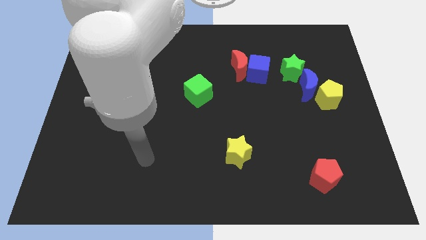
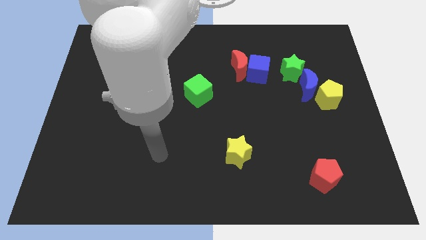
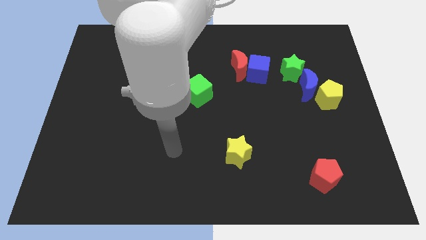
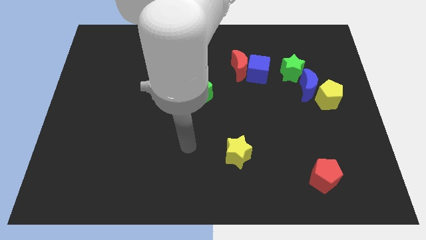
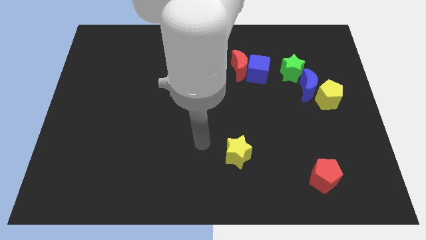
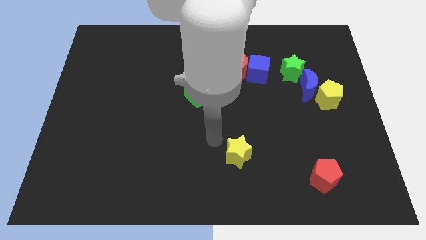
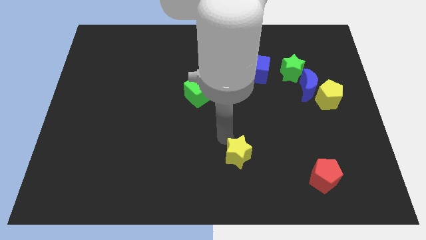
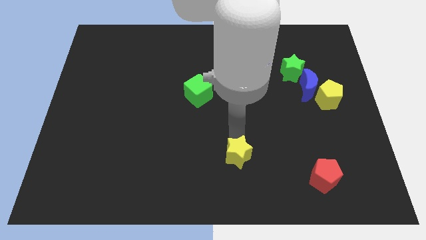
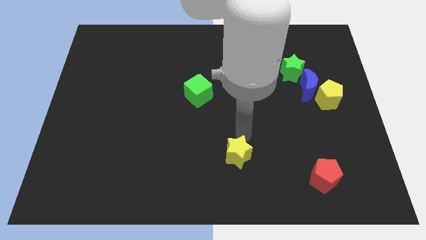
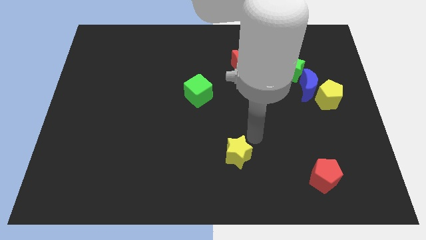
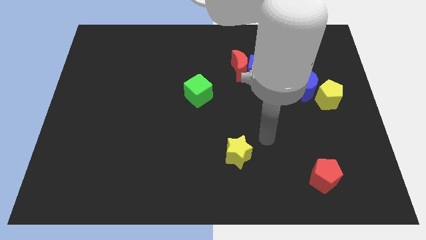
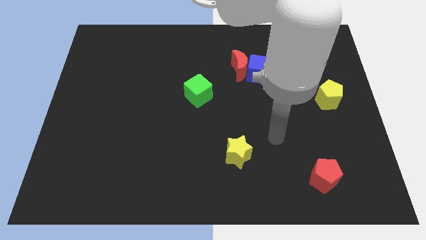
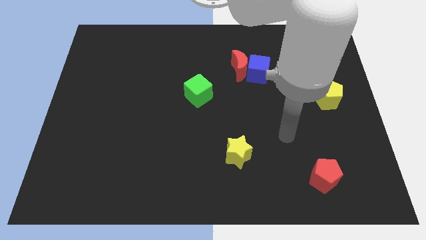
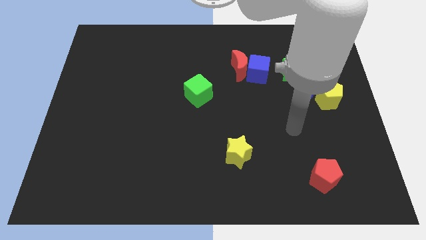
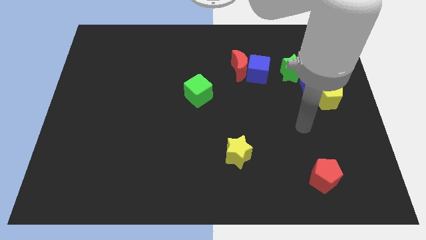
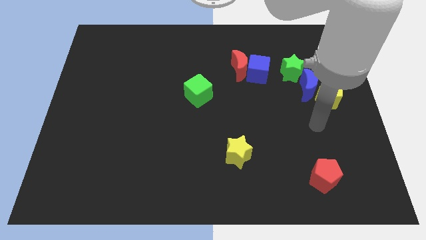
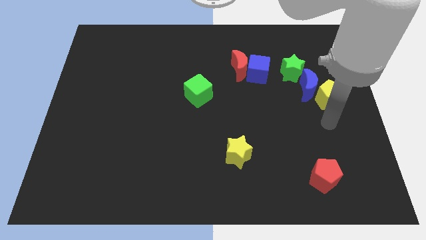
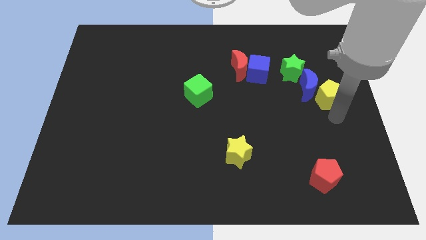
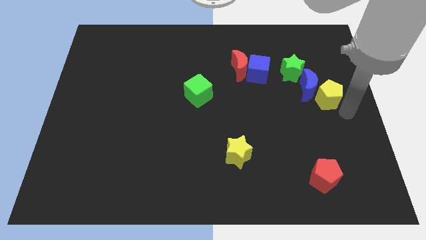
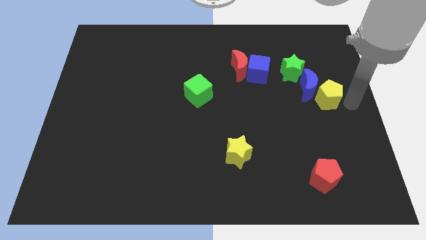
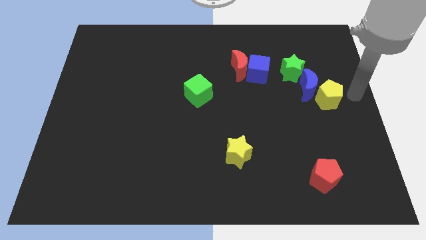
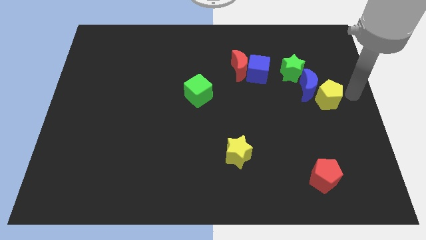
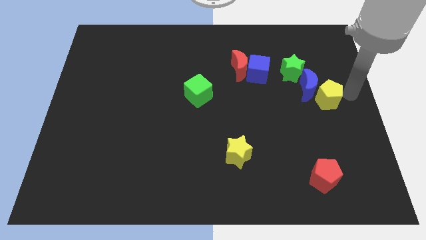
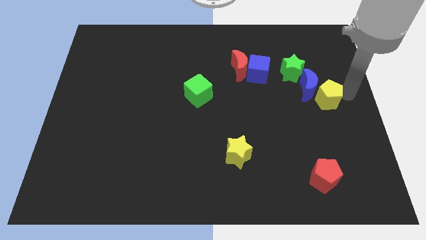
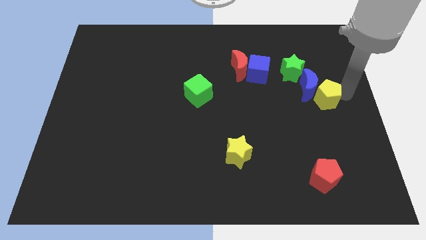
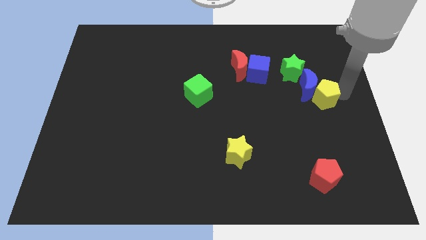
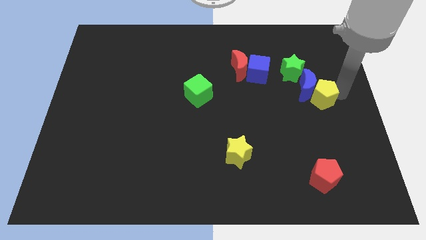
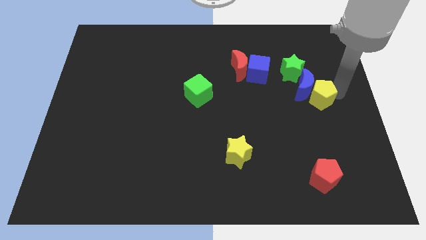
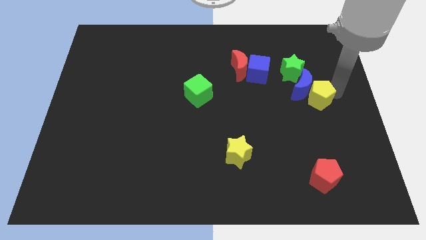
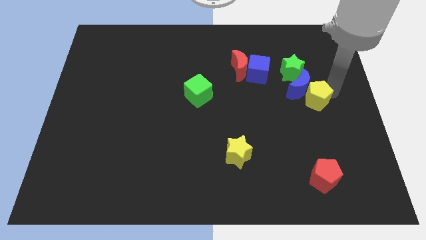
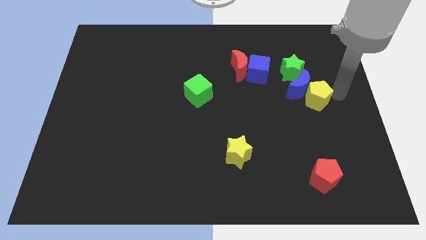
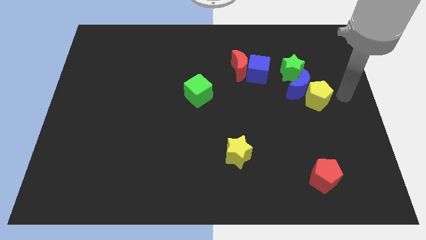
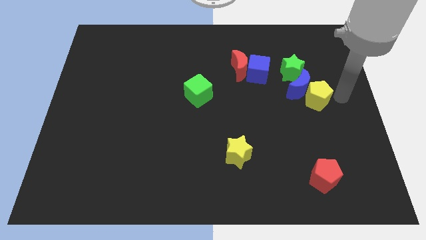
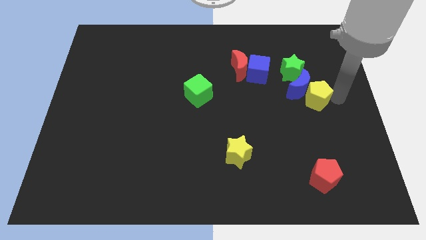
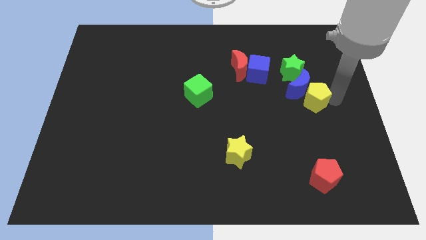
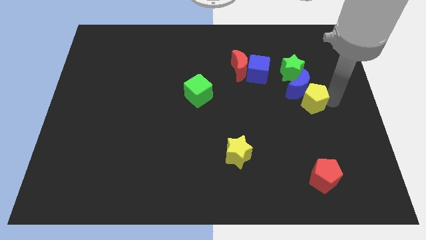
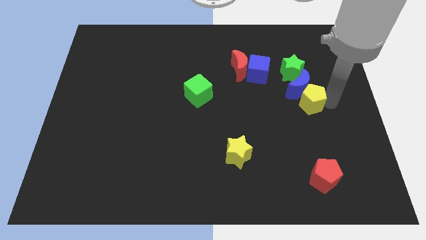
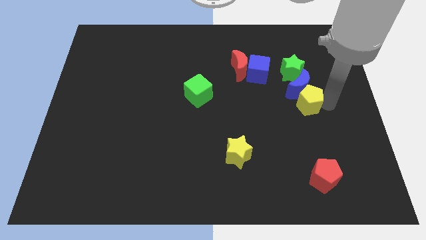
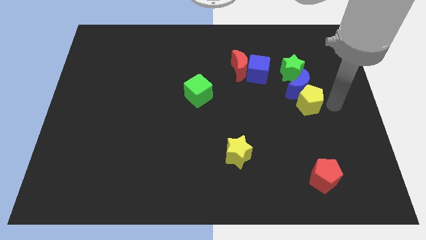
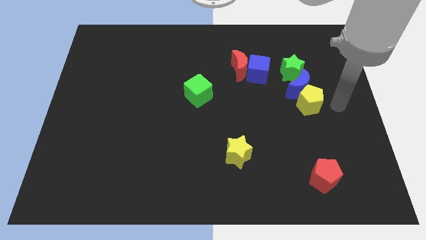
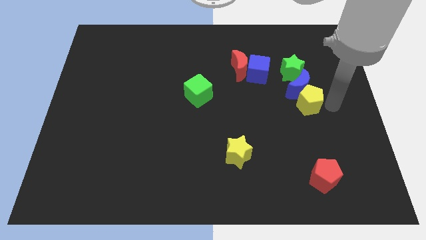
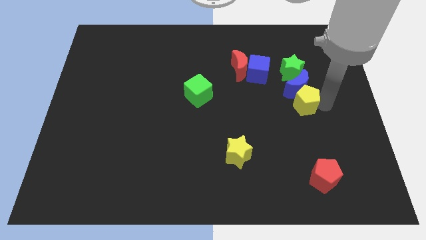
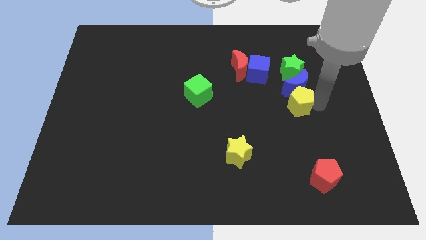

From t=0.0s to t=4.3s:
move the yellow pentagon a little bit to the left

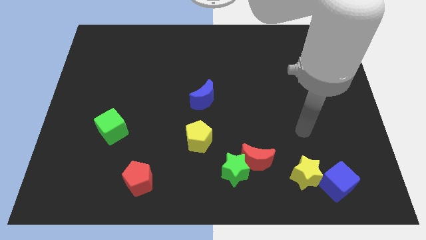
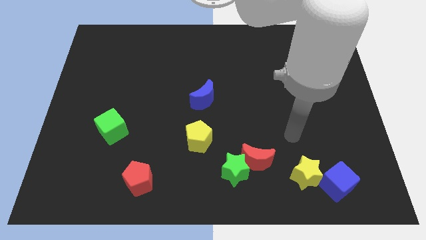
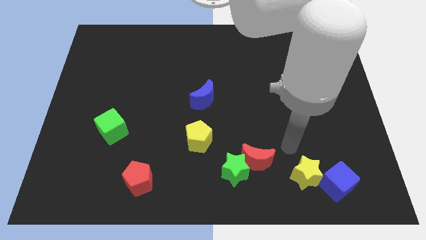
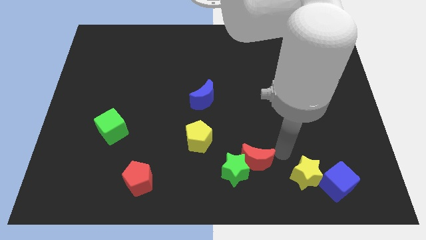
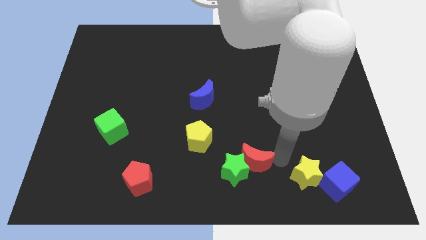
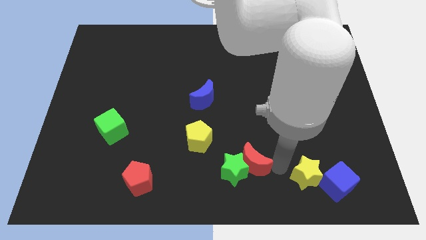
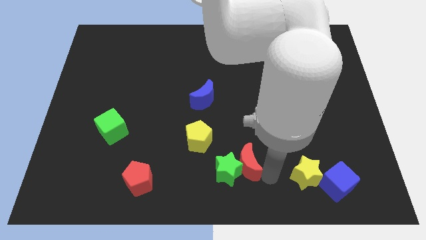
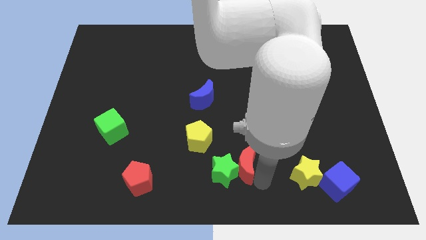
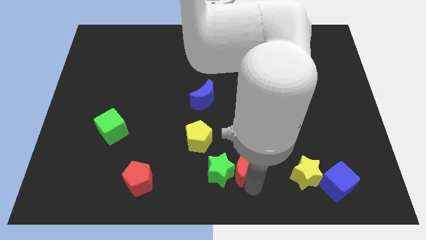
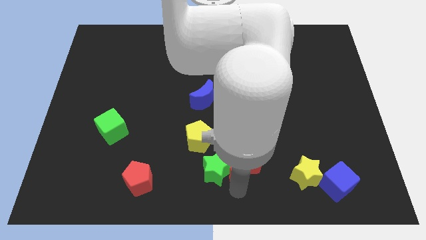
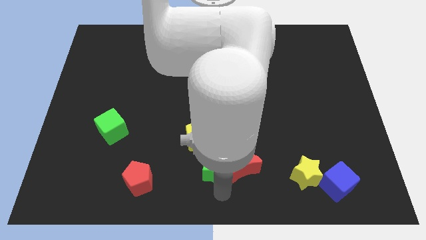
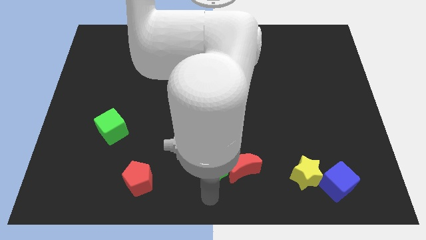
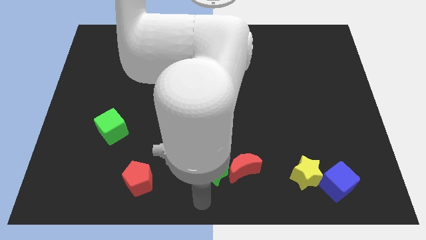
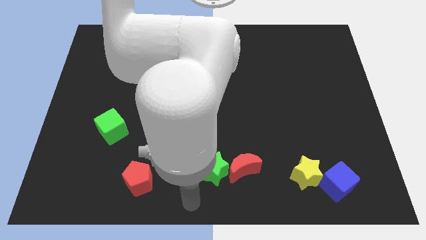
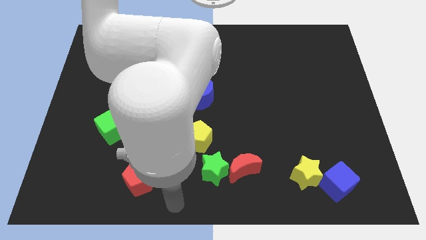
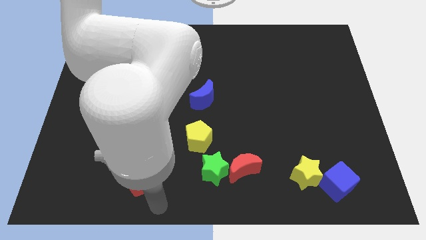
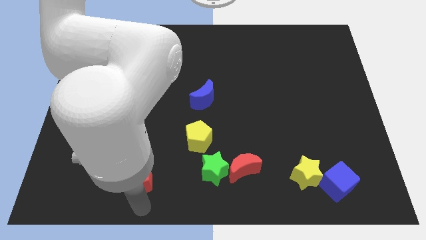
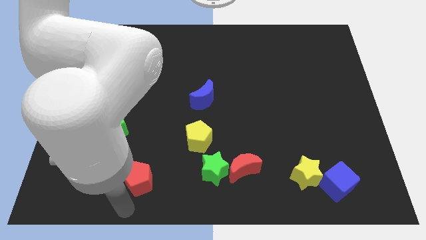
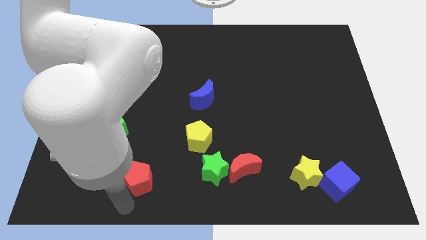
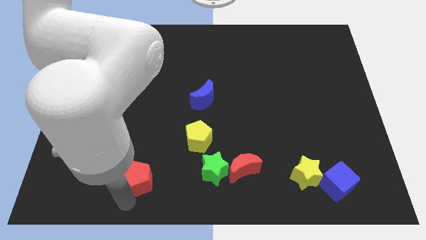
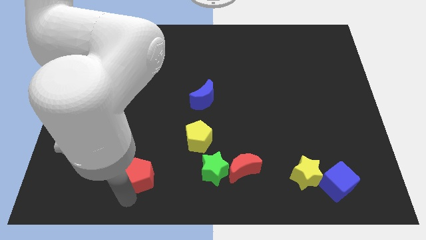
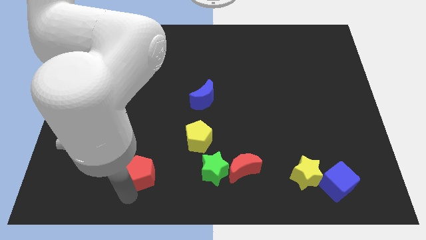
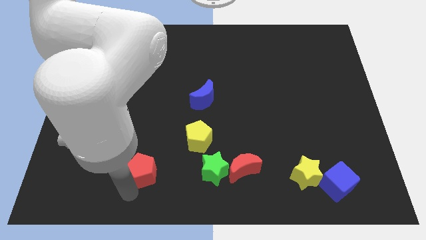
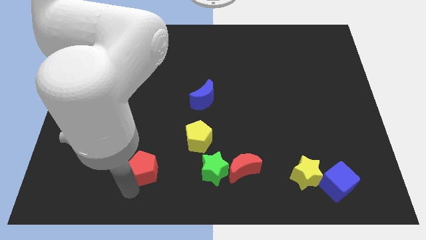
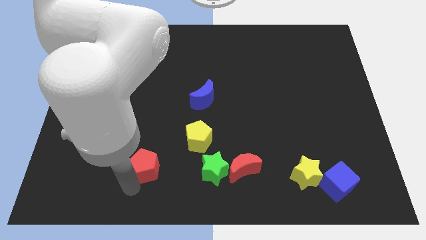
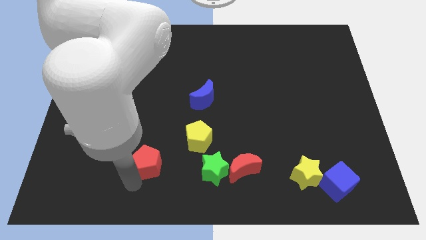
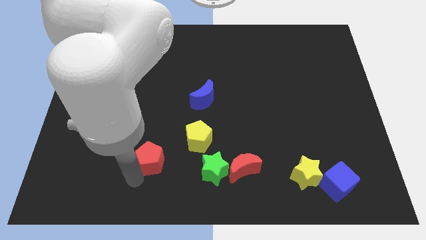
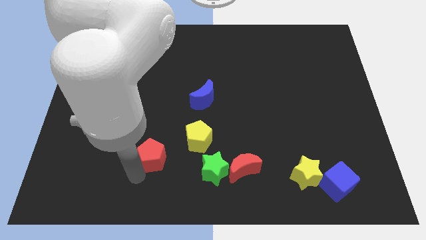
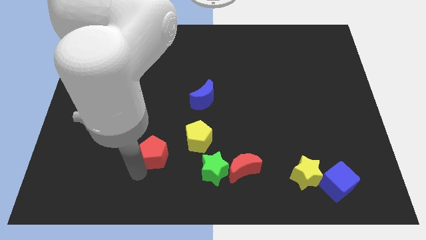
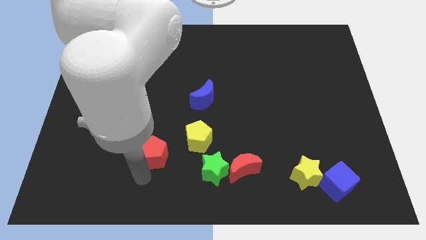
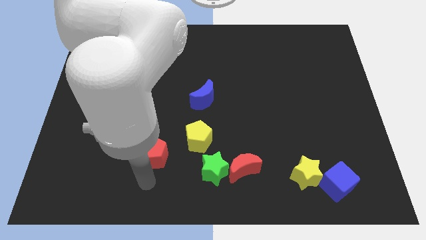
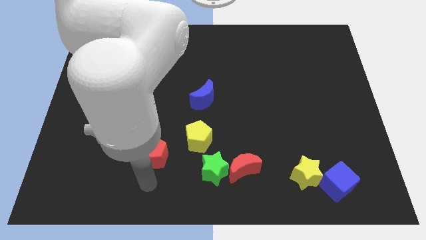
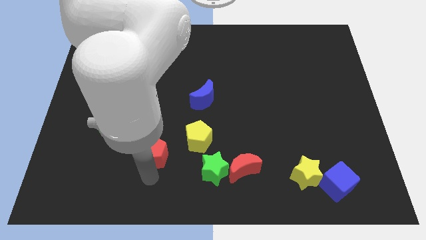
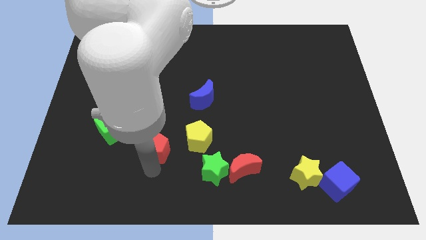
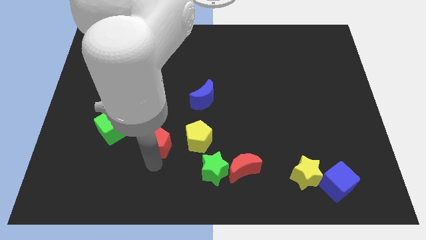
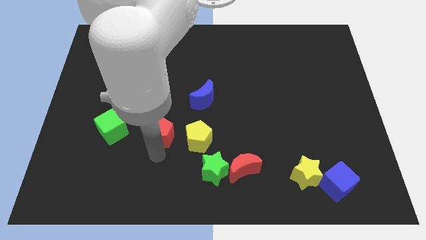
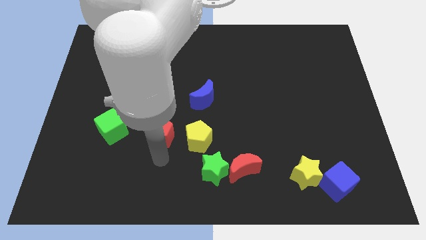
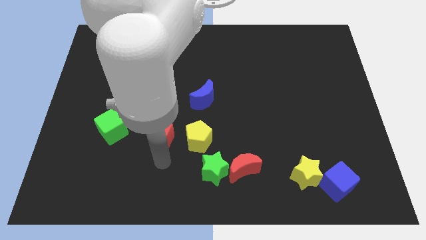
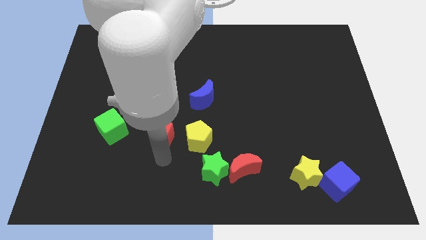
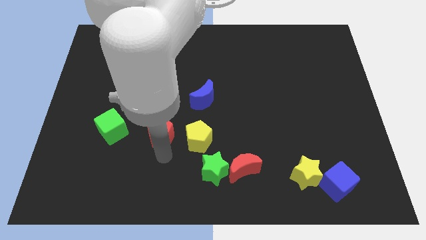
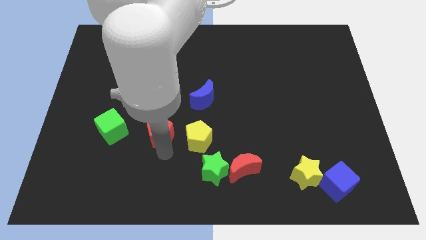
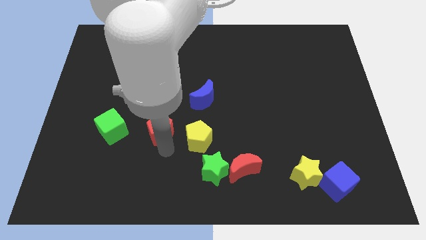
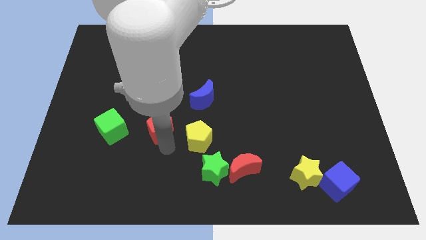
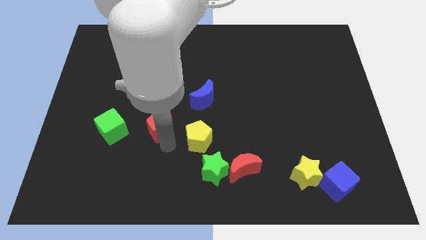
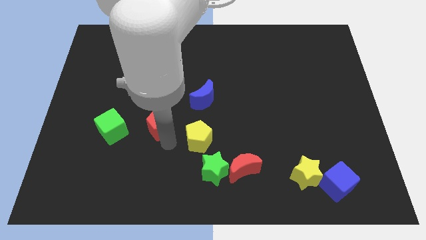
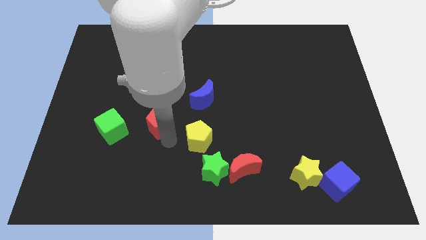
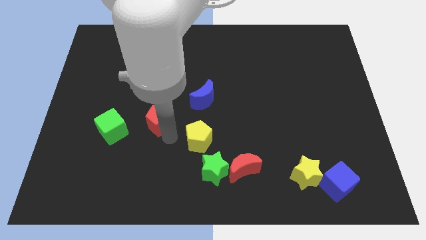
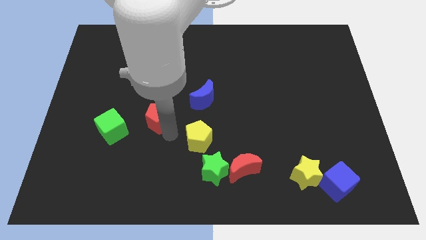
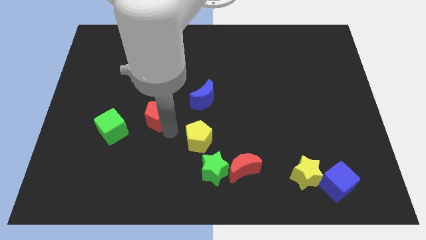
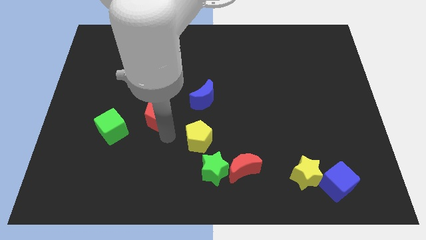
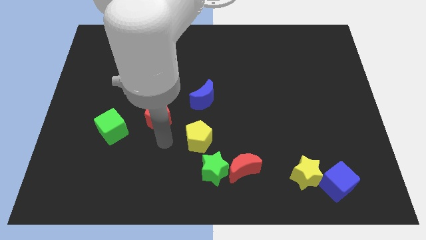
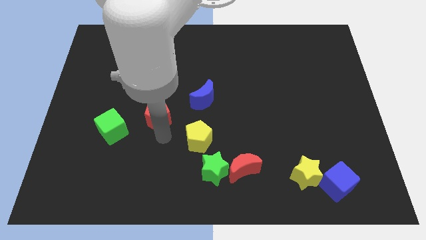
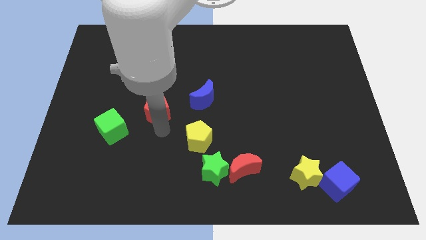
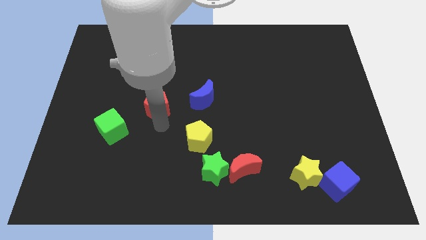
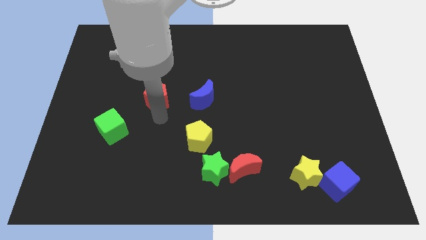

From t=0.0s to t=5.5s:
move the red pentagon upwards
